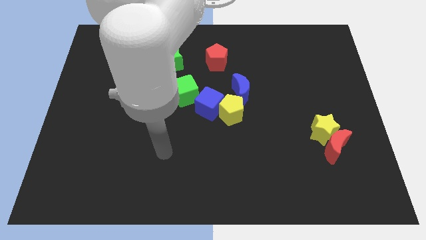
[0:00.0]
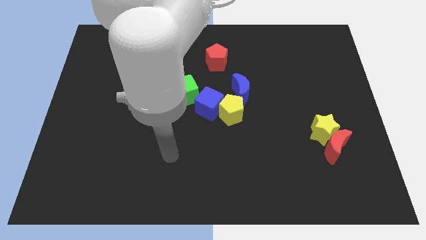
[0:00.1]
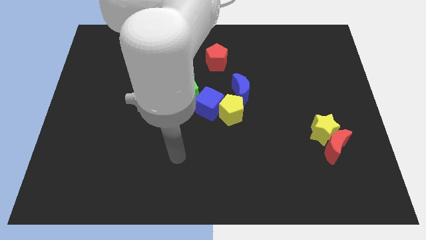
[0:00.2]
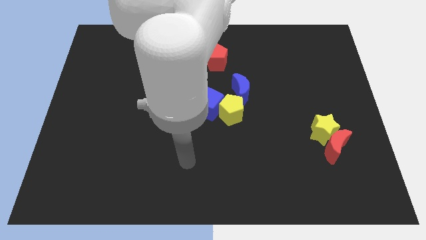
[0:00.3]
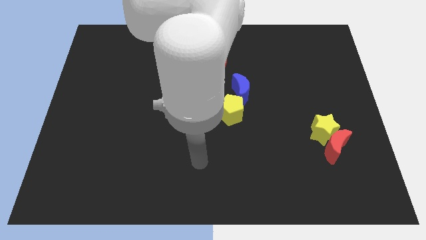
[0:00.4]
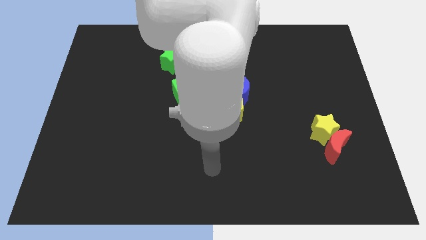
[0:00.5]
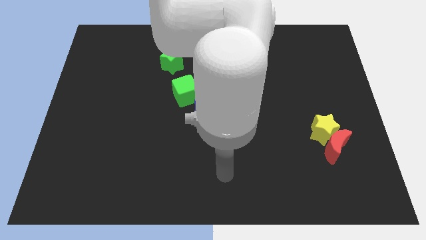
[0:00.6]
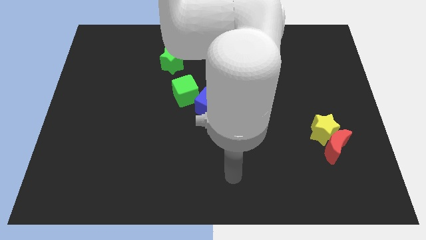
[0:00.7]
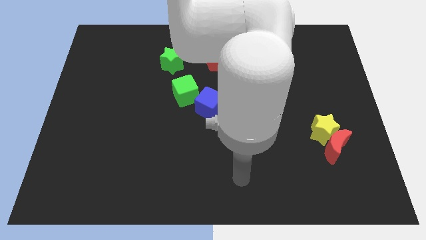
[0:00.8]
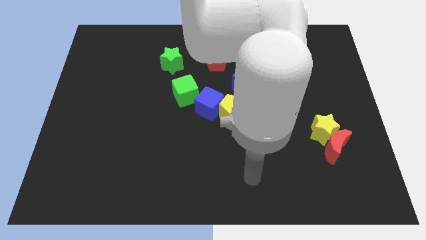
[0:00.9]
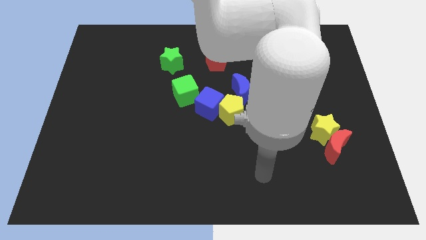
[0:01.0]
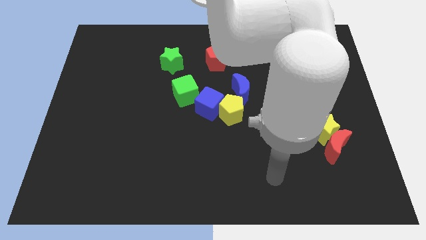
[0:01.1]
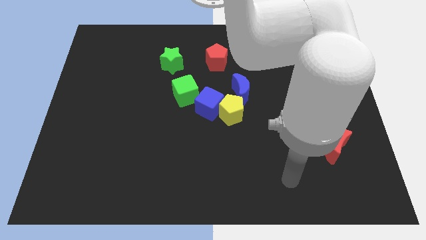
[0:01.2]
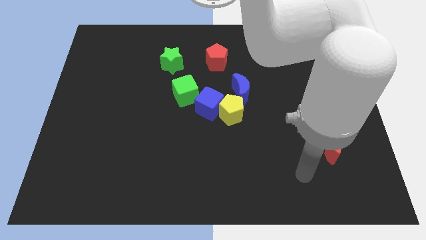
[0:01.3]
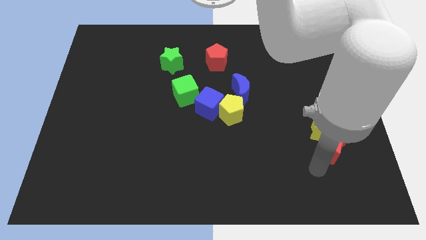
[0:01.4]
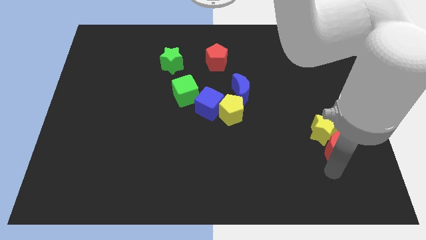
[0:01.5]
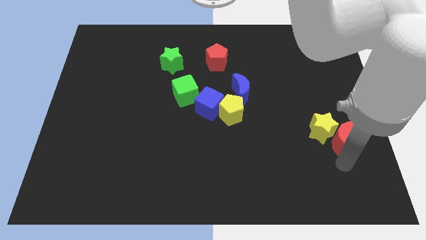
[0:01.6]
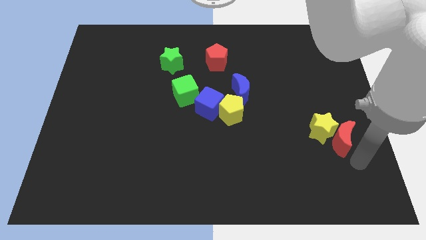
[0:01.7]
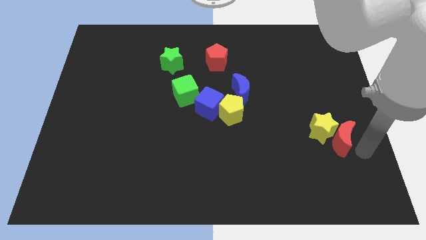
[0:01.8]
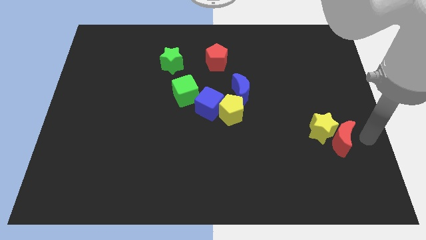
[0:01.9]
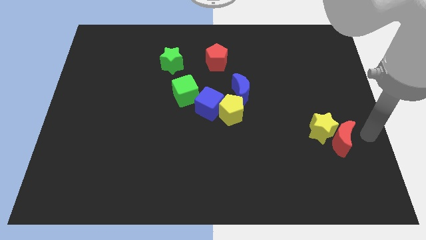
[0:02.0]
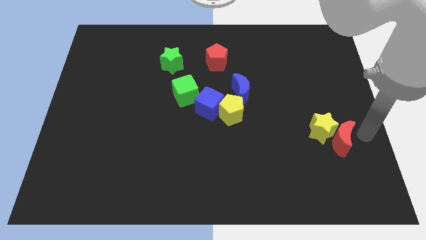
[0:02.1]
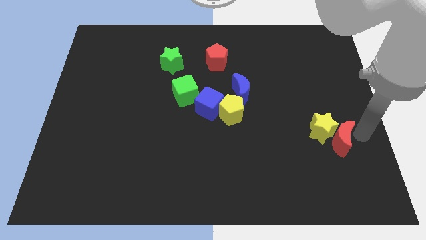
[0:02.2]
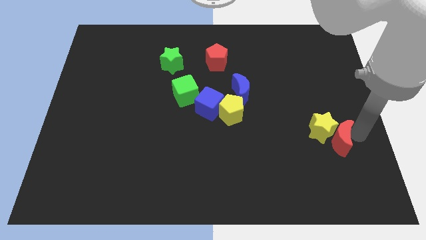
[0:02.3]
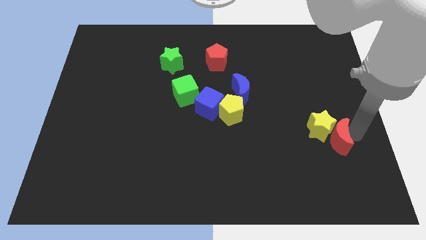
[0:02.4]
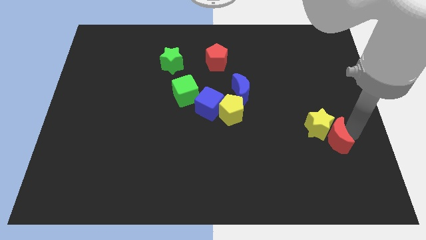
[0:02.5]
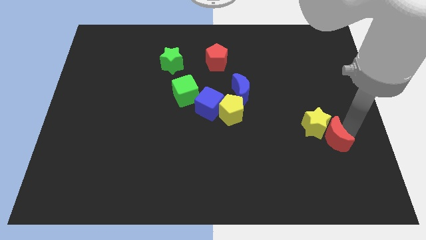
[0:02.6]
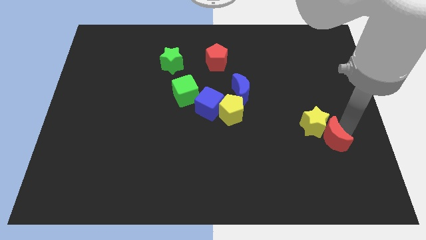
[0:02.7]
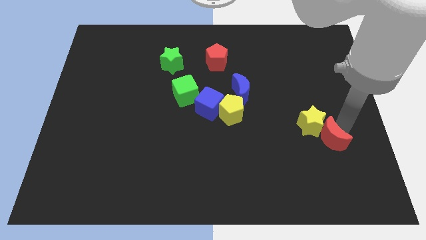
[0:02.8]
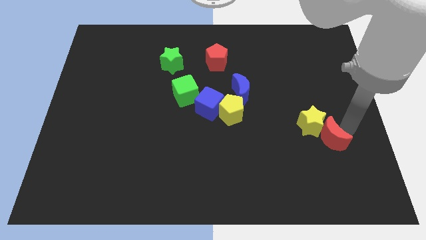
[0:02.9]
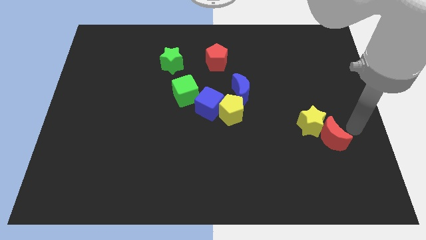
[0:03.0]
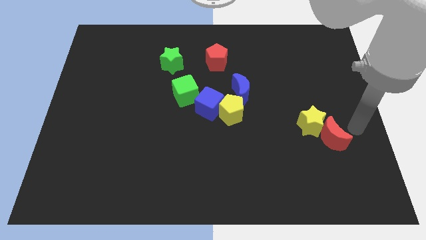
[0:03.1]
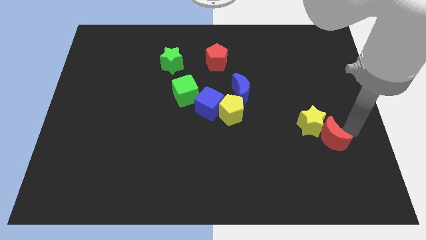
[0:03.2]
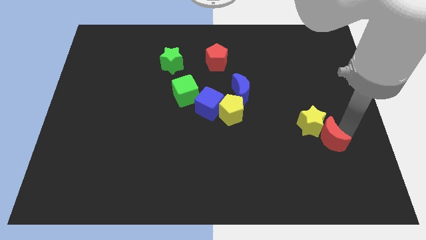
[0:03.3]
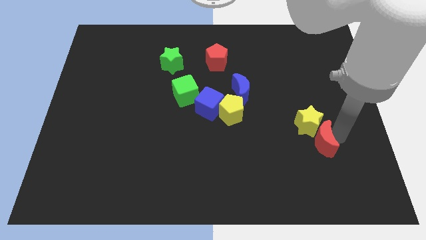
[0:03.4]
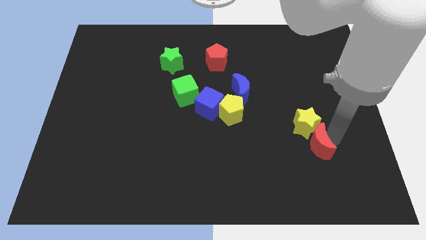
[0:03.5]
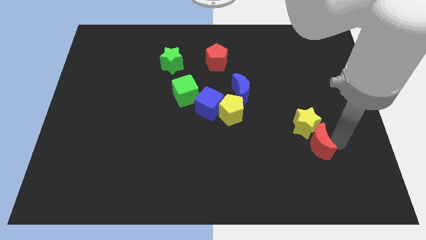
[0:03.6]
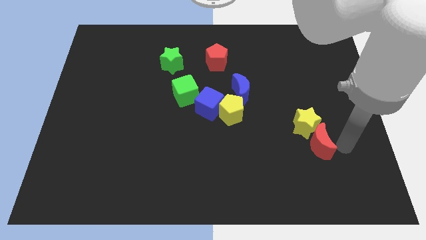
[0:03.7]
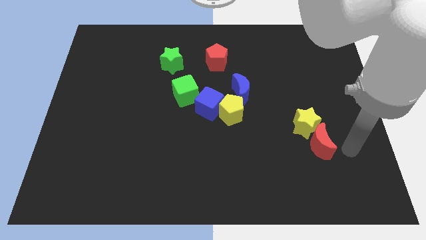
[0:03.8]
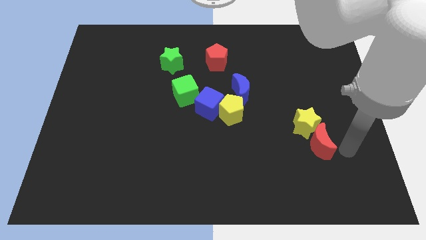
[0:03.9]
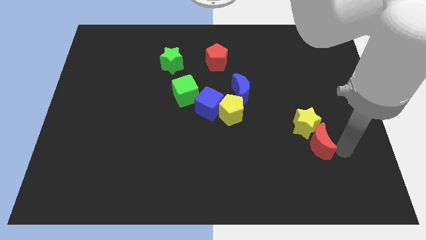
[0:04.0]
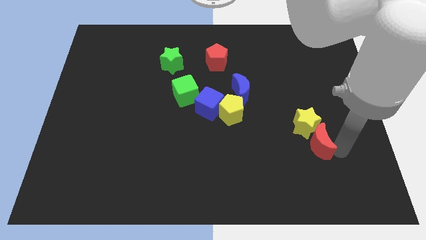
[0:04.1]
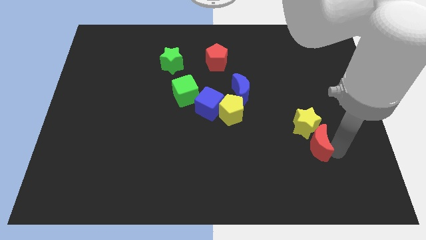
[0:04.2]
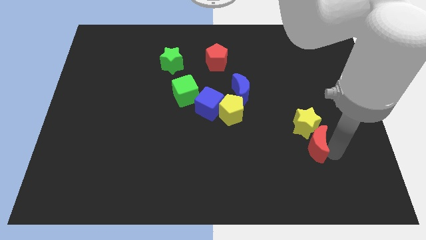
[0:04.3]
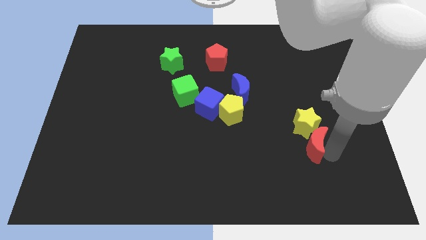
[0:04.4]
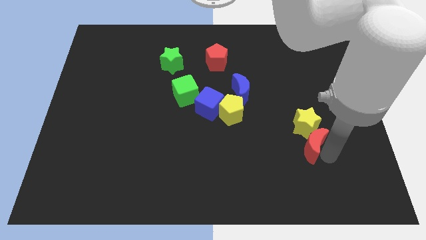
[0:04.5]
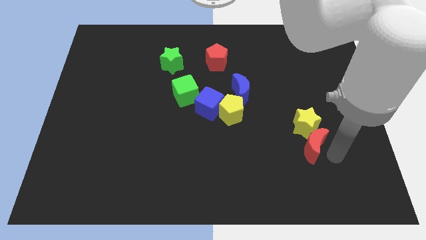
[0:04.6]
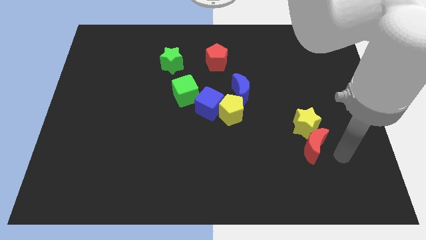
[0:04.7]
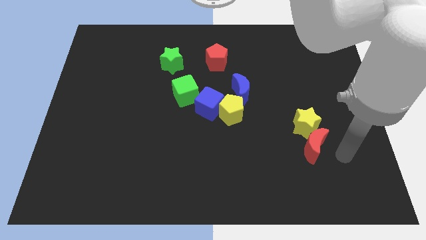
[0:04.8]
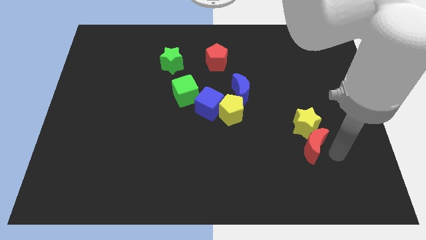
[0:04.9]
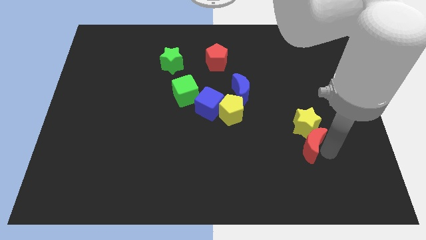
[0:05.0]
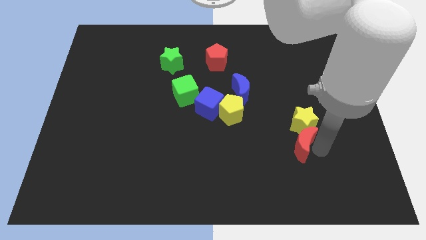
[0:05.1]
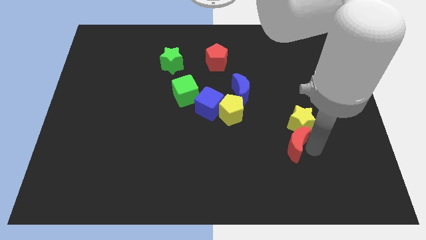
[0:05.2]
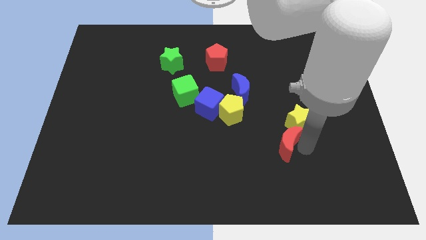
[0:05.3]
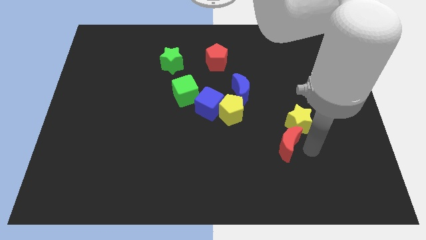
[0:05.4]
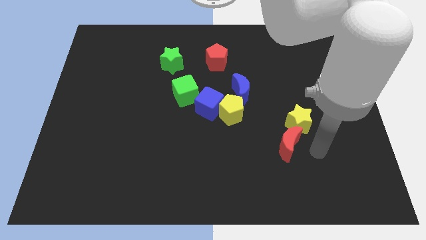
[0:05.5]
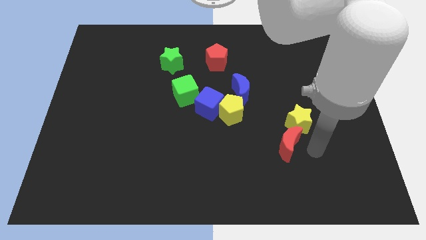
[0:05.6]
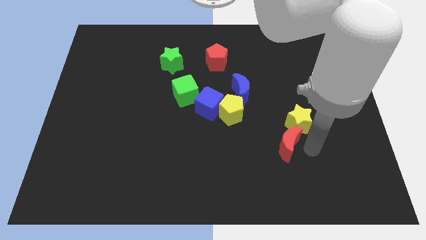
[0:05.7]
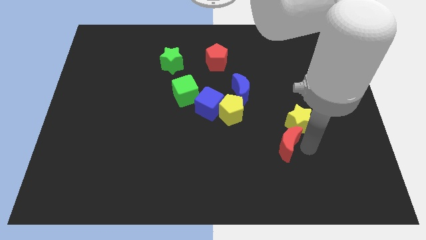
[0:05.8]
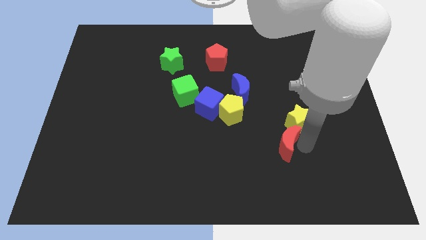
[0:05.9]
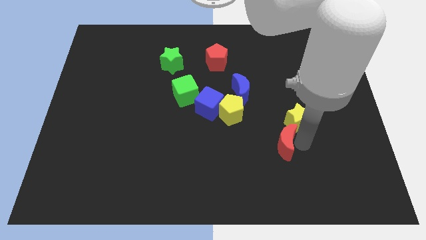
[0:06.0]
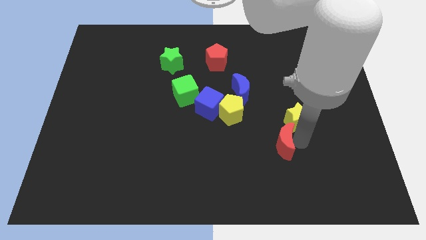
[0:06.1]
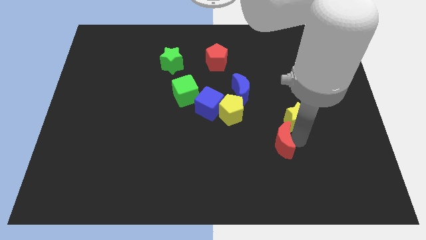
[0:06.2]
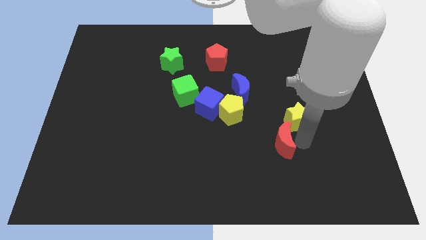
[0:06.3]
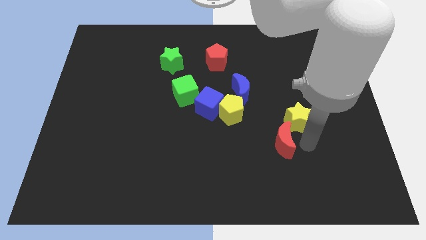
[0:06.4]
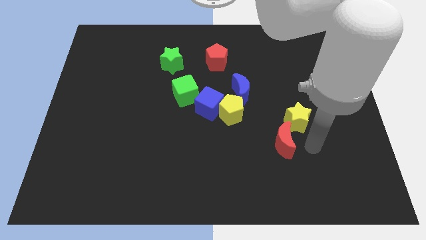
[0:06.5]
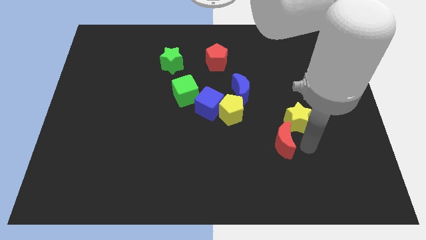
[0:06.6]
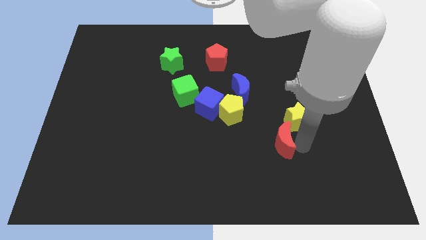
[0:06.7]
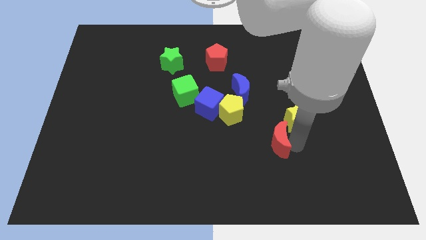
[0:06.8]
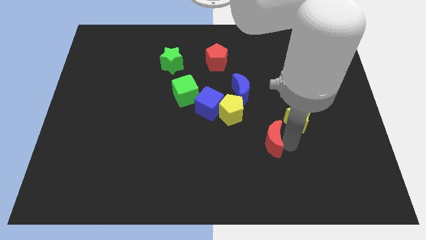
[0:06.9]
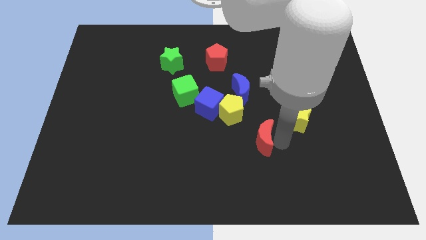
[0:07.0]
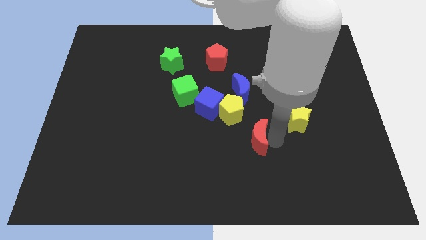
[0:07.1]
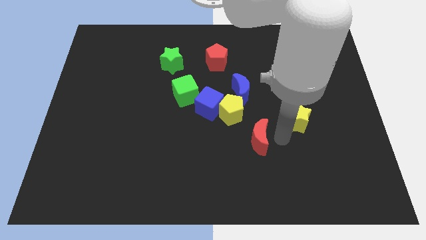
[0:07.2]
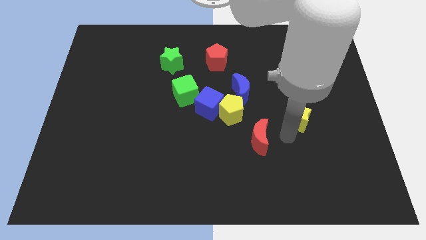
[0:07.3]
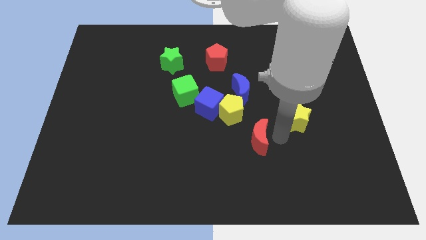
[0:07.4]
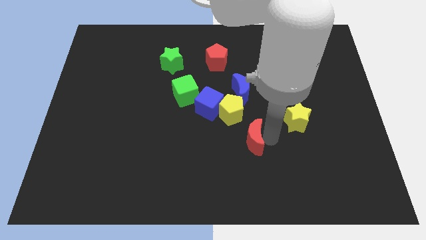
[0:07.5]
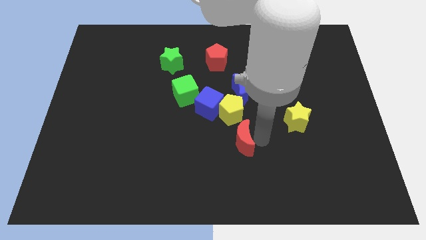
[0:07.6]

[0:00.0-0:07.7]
slide the red moon to the left

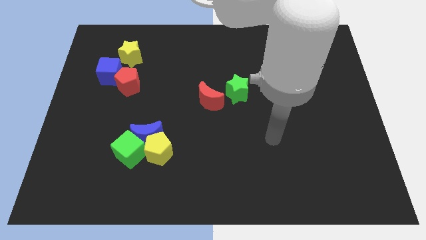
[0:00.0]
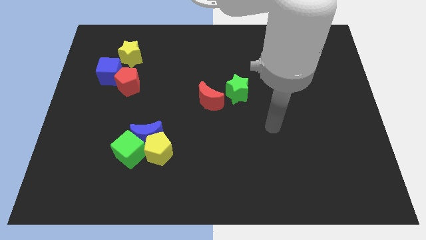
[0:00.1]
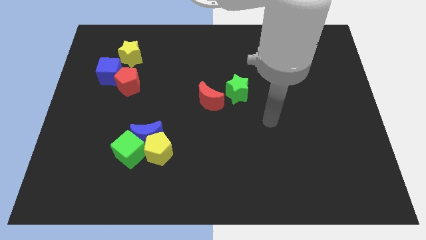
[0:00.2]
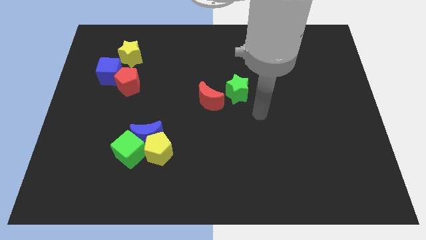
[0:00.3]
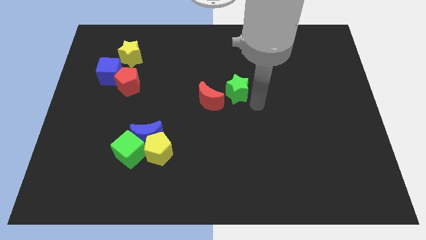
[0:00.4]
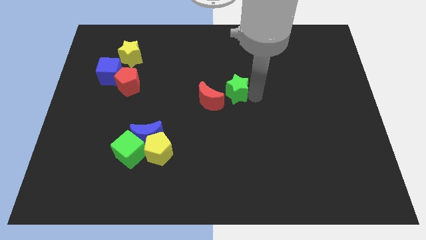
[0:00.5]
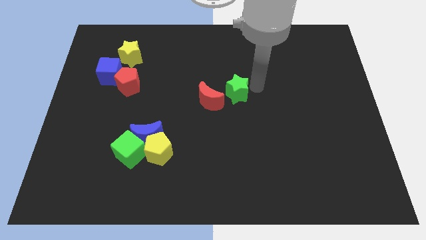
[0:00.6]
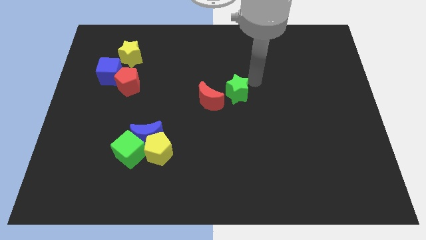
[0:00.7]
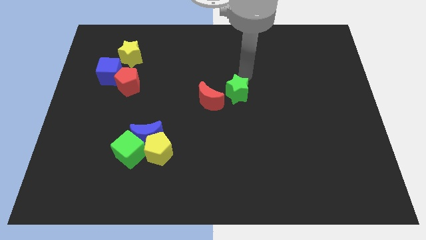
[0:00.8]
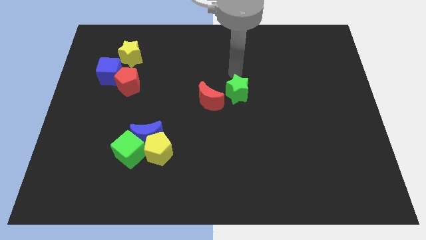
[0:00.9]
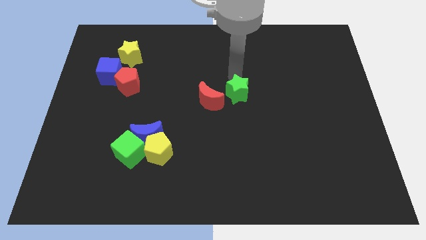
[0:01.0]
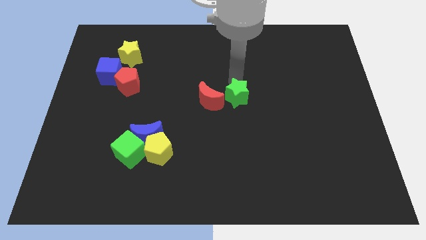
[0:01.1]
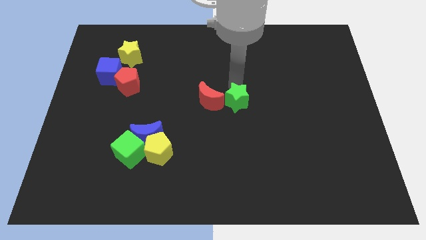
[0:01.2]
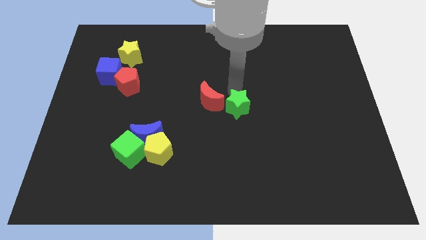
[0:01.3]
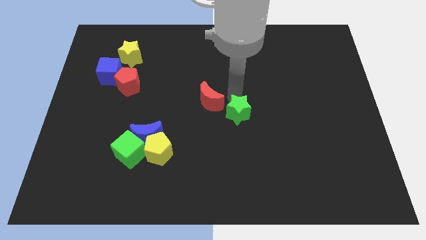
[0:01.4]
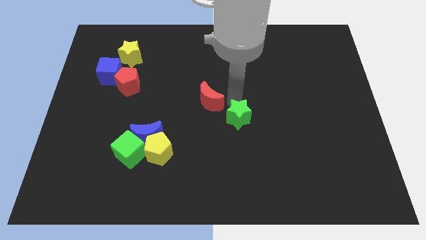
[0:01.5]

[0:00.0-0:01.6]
move the green star a little bit downwards
